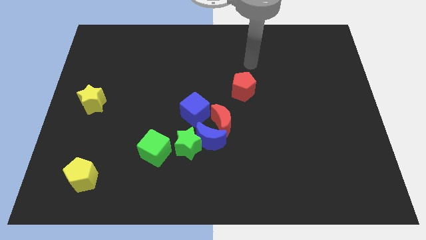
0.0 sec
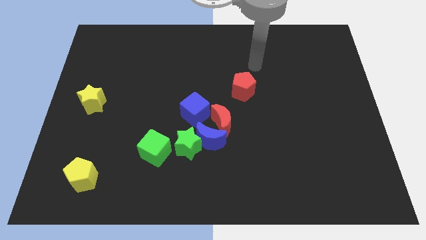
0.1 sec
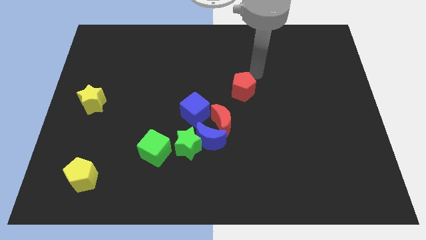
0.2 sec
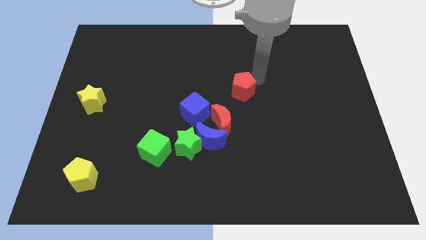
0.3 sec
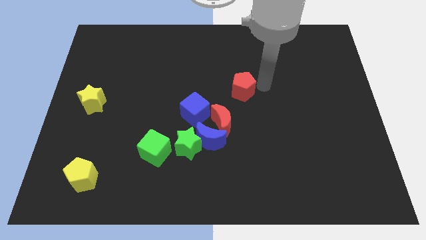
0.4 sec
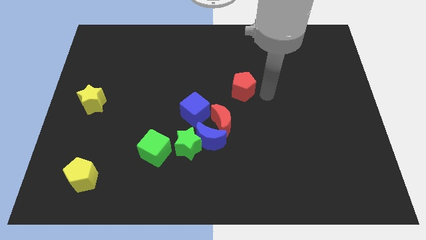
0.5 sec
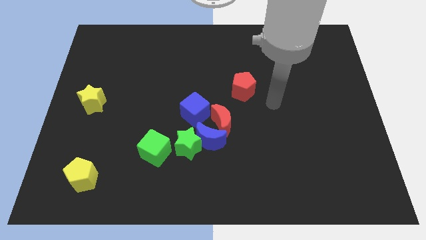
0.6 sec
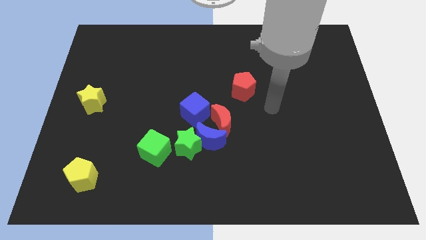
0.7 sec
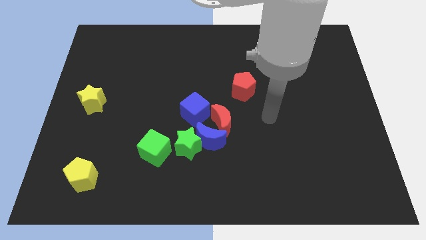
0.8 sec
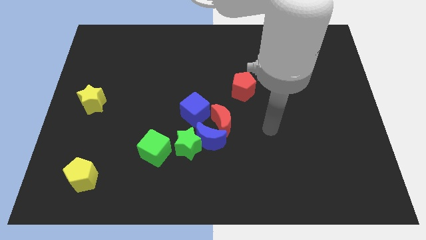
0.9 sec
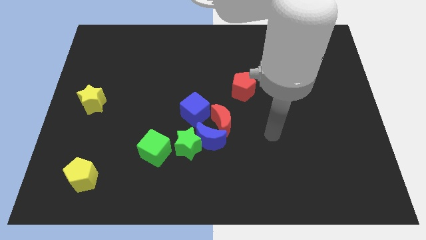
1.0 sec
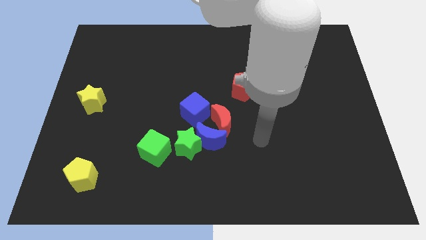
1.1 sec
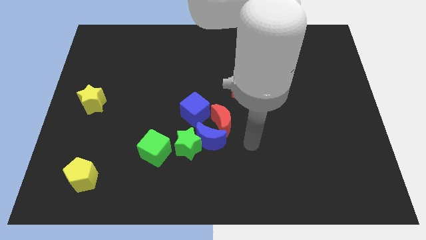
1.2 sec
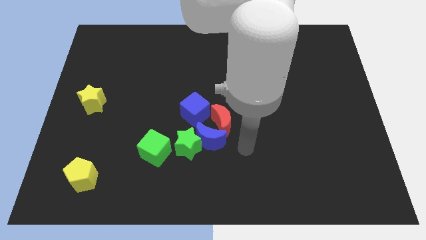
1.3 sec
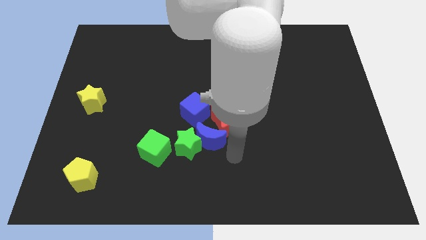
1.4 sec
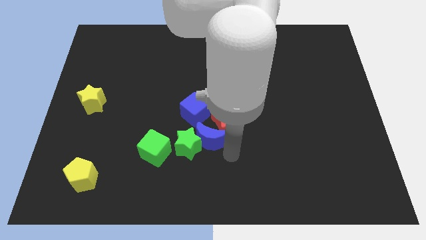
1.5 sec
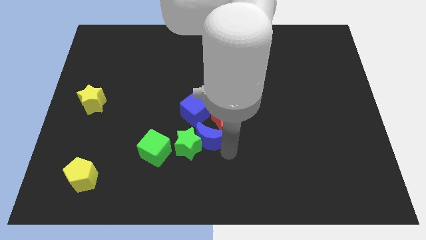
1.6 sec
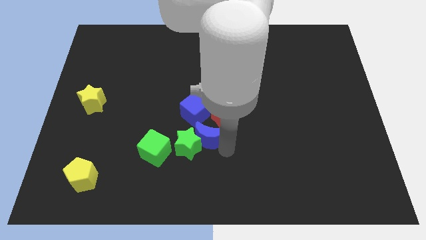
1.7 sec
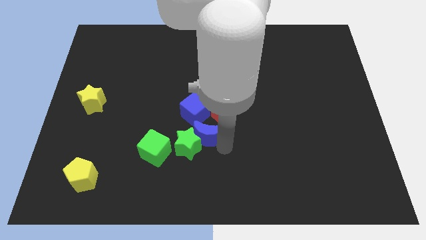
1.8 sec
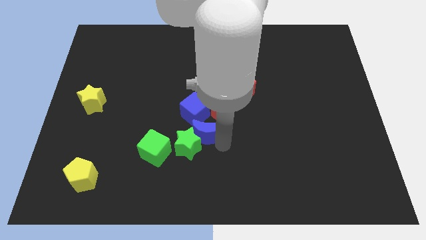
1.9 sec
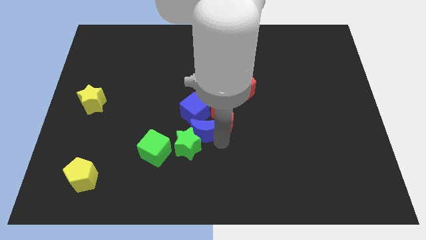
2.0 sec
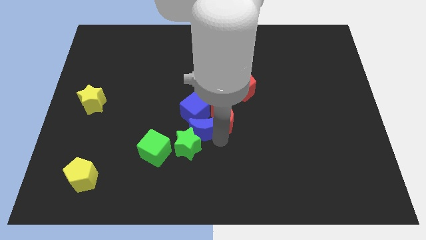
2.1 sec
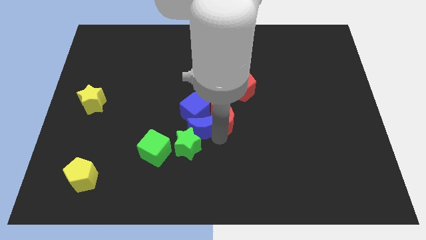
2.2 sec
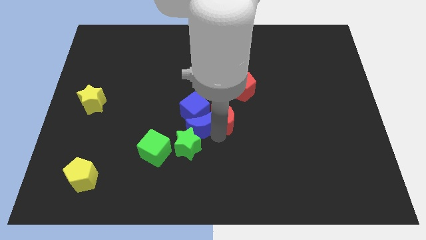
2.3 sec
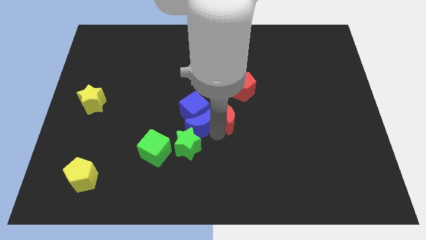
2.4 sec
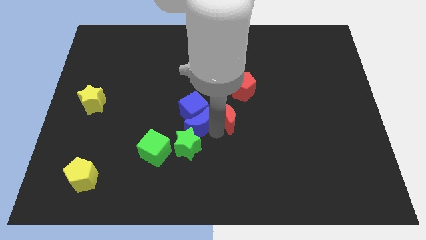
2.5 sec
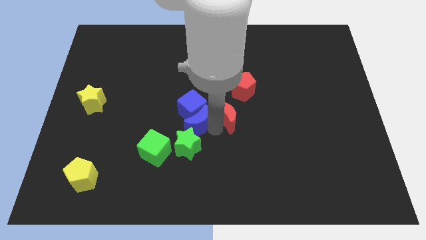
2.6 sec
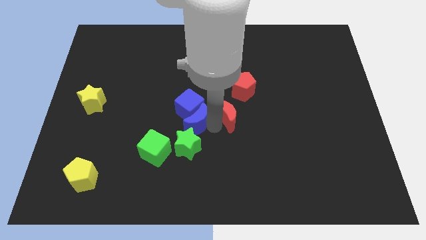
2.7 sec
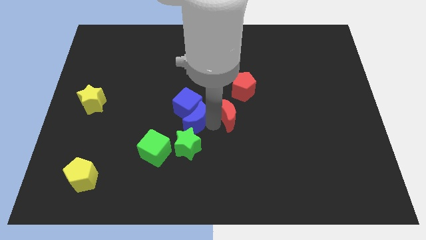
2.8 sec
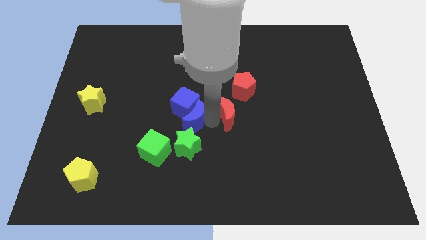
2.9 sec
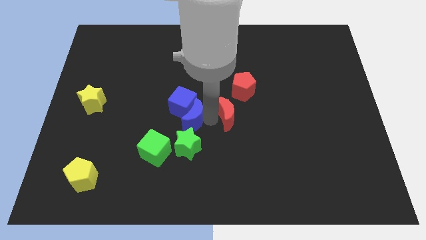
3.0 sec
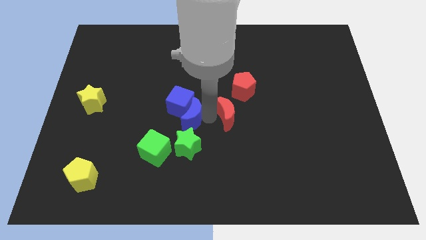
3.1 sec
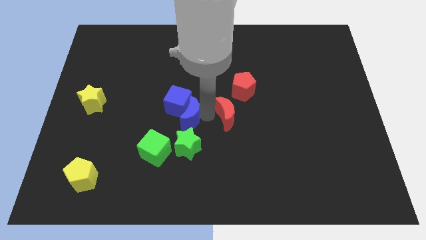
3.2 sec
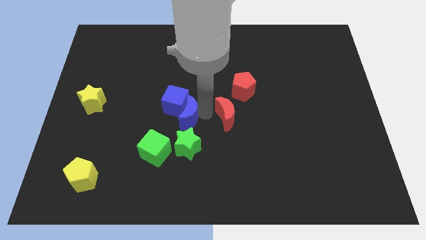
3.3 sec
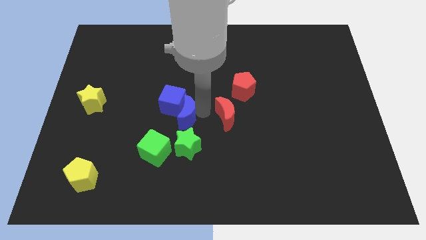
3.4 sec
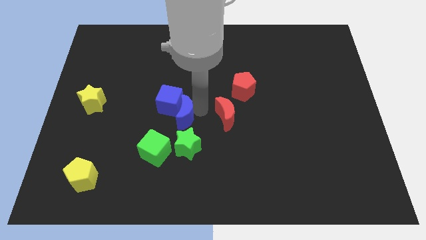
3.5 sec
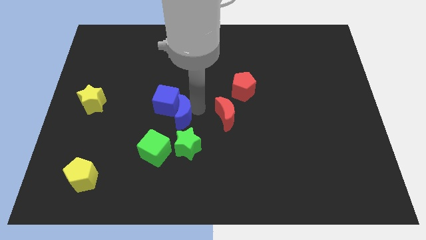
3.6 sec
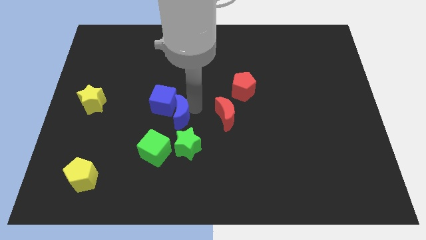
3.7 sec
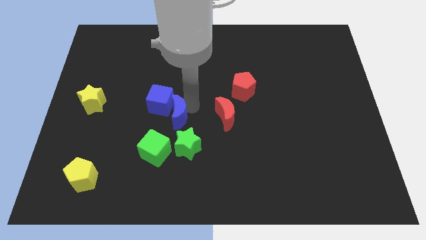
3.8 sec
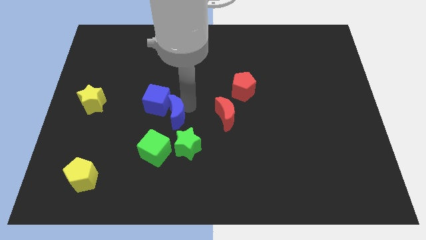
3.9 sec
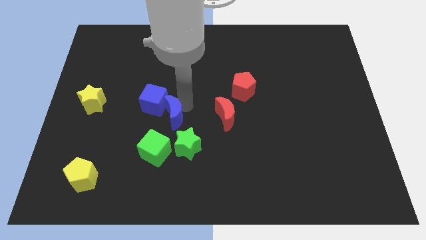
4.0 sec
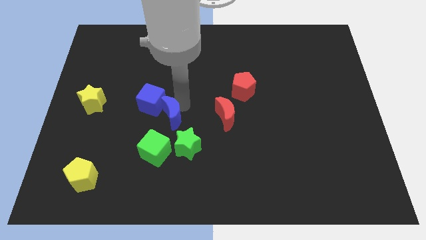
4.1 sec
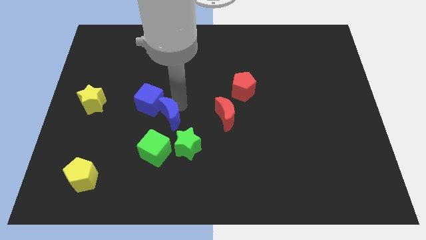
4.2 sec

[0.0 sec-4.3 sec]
slide the blue moon to the left a little bit

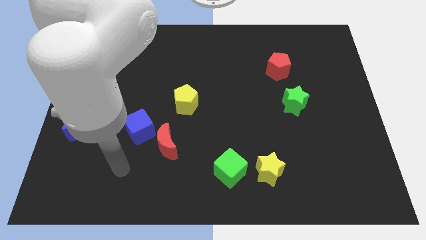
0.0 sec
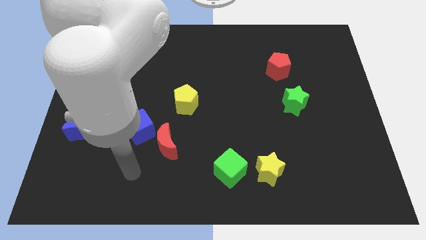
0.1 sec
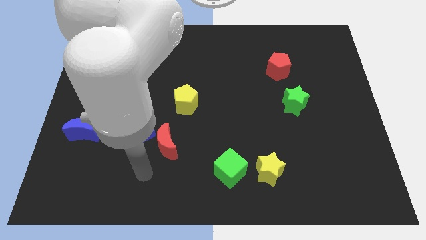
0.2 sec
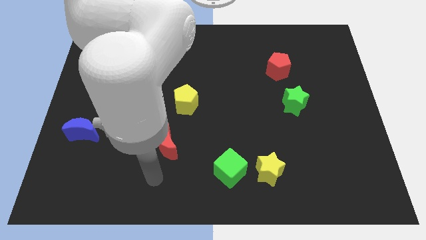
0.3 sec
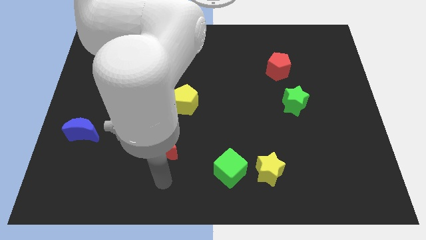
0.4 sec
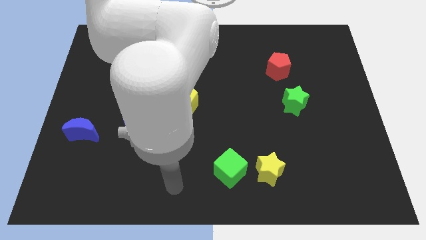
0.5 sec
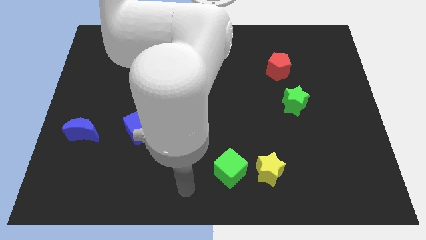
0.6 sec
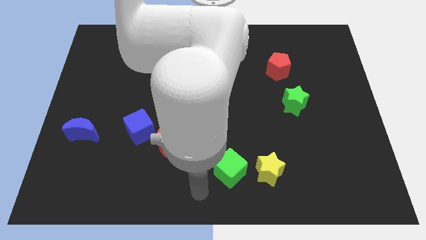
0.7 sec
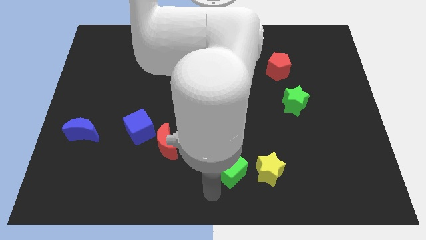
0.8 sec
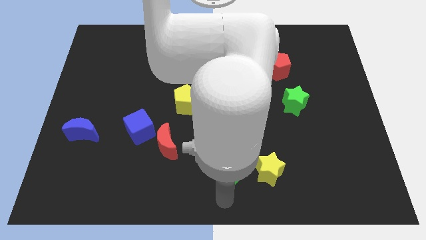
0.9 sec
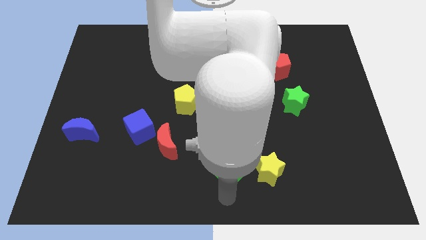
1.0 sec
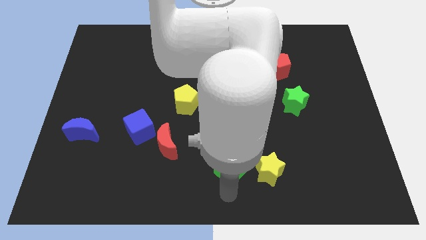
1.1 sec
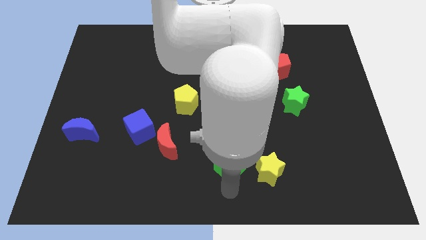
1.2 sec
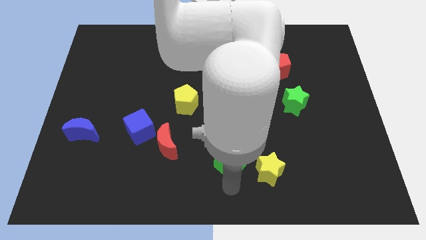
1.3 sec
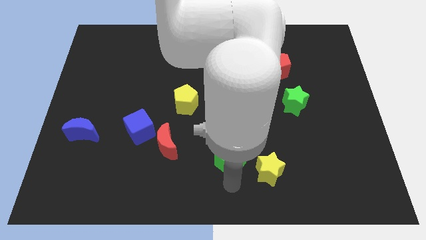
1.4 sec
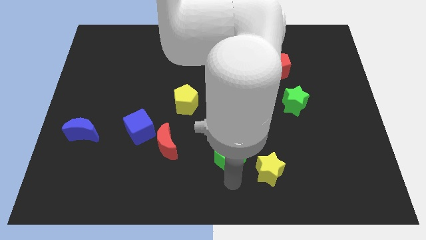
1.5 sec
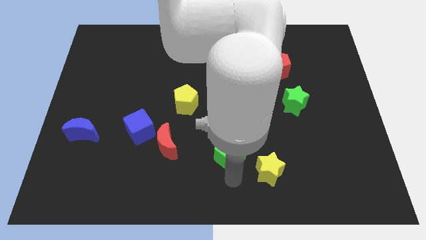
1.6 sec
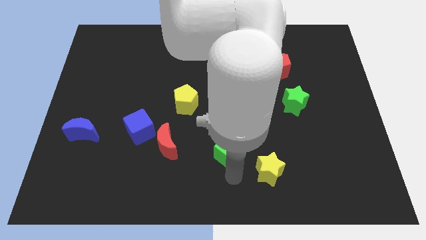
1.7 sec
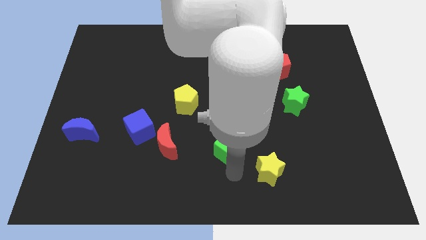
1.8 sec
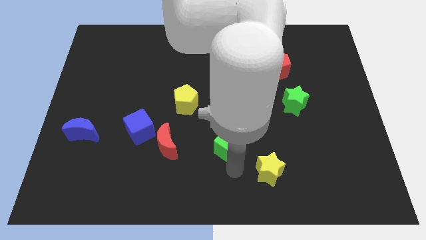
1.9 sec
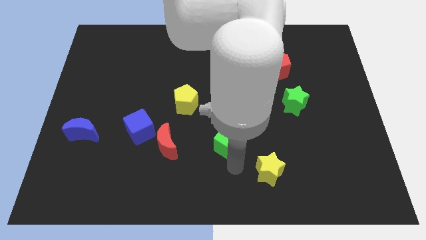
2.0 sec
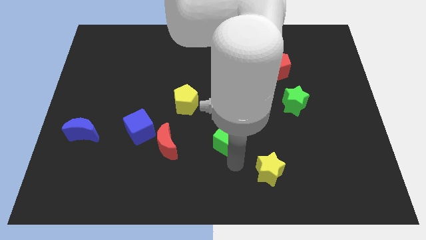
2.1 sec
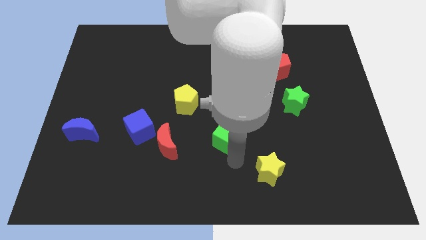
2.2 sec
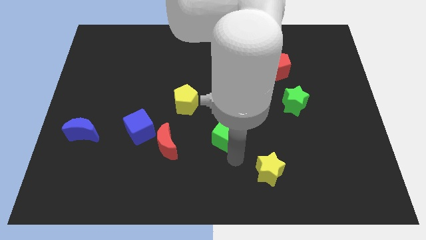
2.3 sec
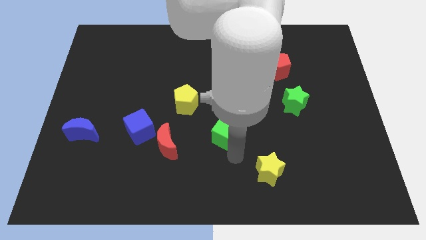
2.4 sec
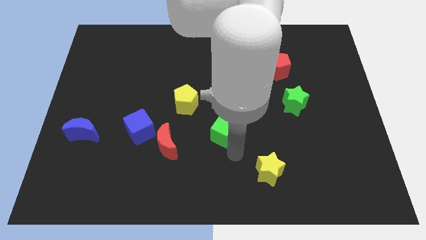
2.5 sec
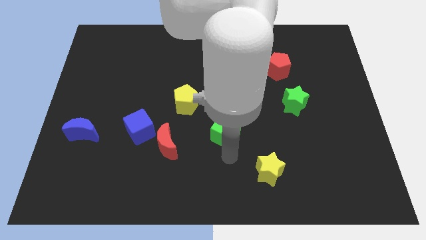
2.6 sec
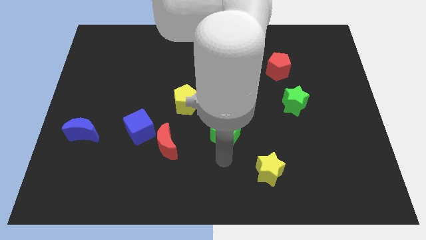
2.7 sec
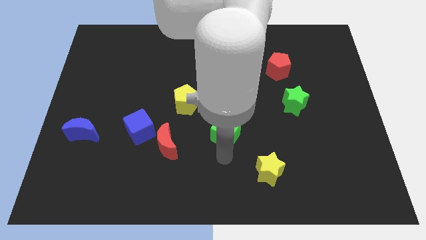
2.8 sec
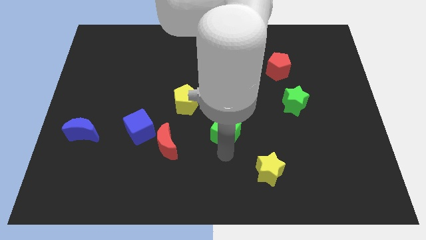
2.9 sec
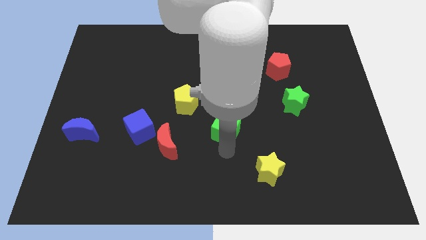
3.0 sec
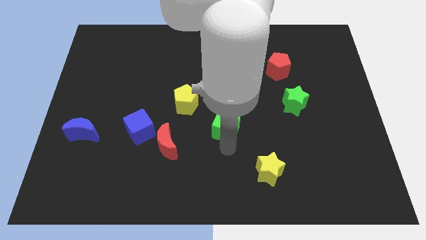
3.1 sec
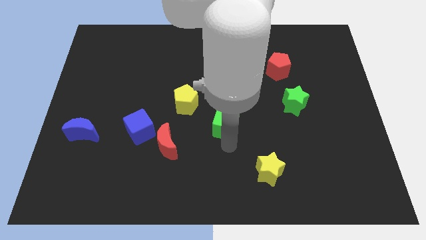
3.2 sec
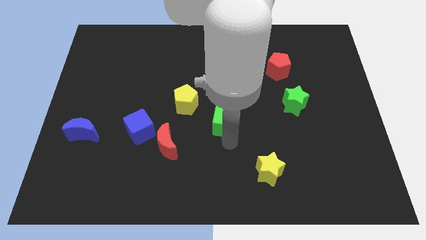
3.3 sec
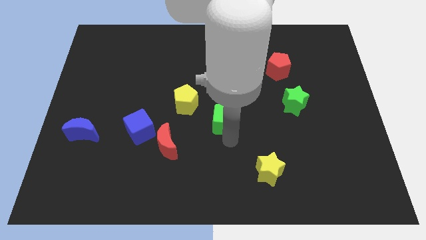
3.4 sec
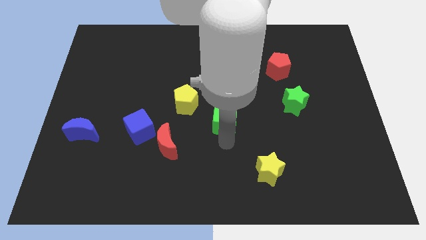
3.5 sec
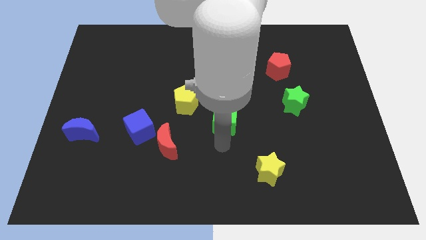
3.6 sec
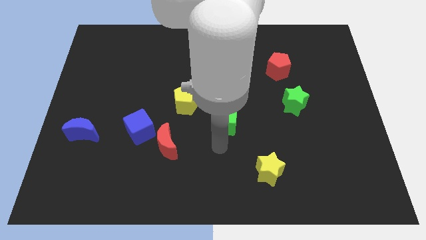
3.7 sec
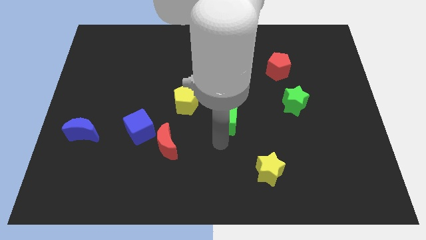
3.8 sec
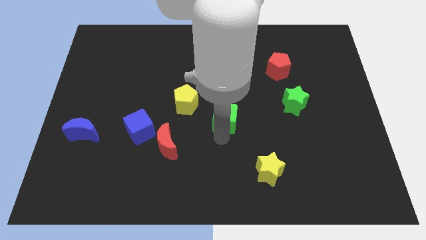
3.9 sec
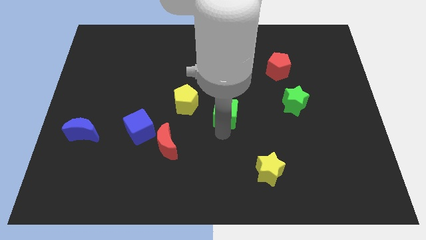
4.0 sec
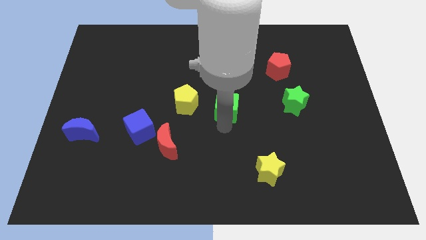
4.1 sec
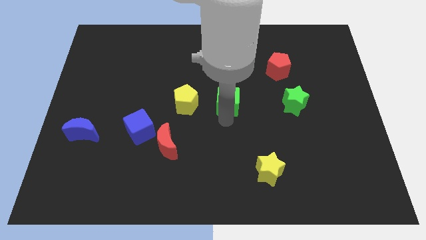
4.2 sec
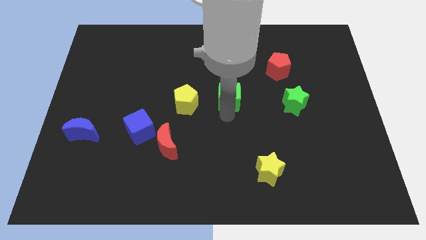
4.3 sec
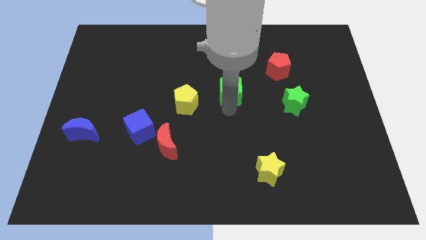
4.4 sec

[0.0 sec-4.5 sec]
push the green cube upwards
